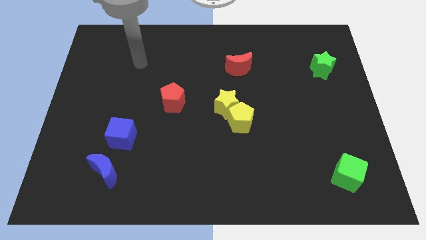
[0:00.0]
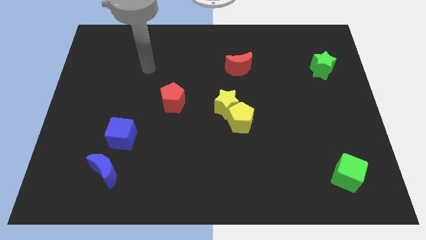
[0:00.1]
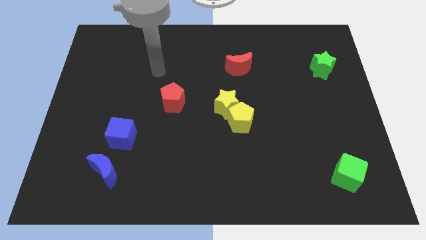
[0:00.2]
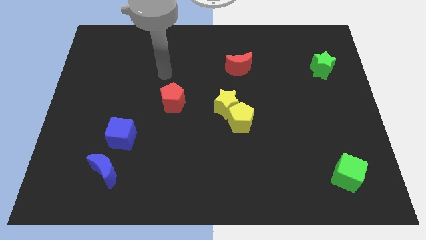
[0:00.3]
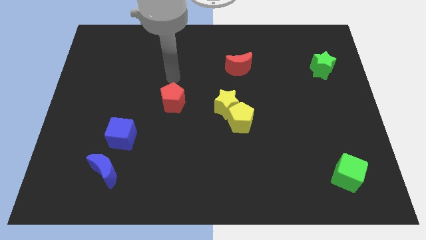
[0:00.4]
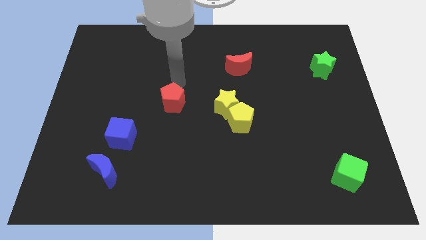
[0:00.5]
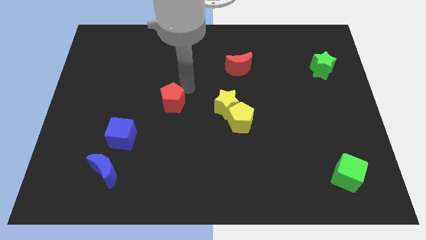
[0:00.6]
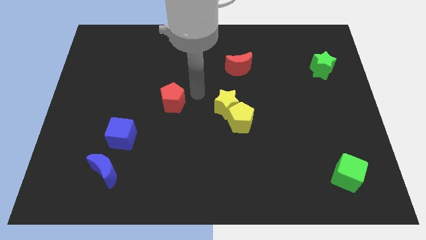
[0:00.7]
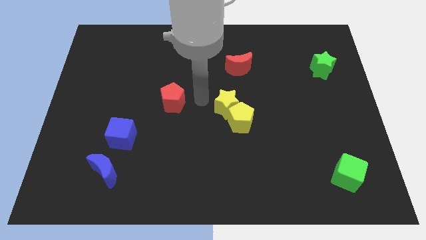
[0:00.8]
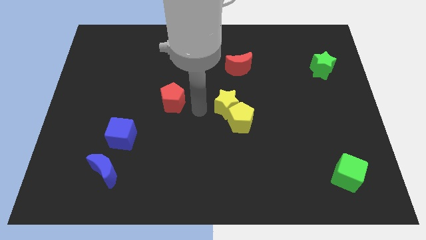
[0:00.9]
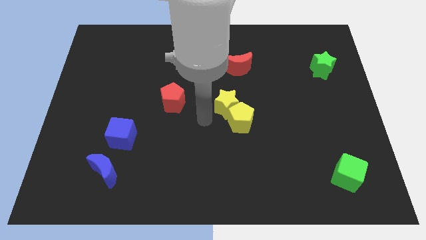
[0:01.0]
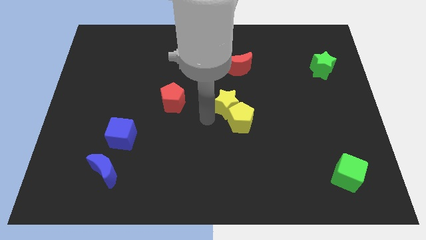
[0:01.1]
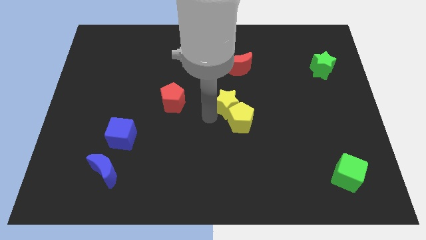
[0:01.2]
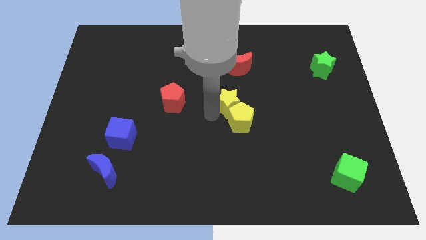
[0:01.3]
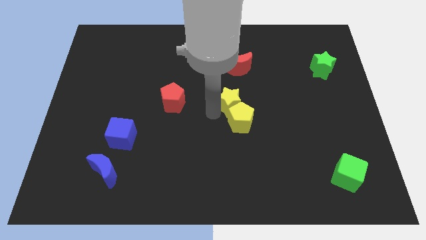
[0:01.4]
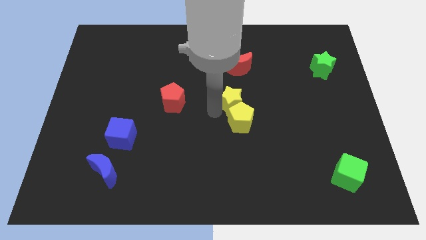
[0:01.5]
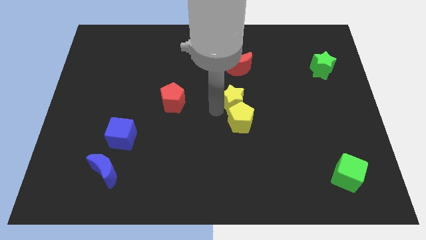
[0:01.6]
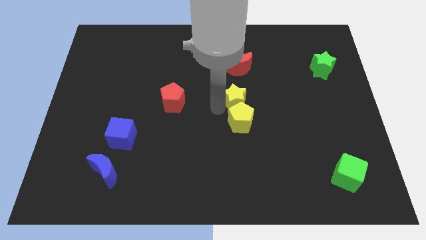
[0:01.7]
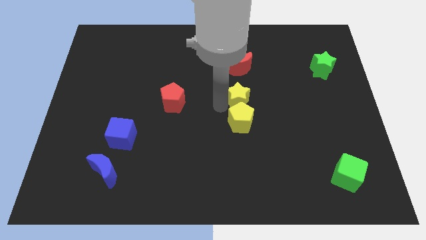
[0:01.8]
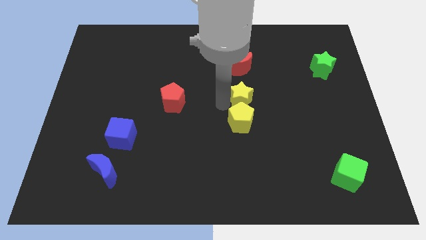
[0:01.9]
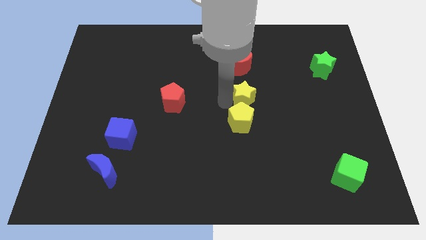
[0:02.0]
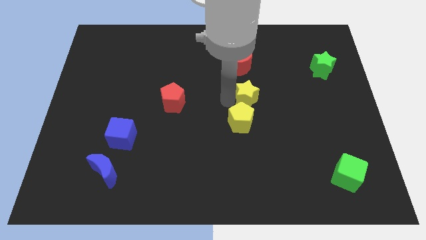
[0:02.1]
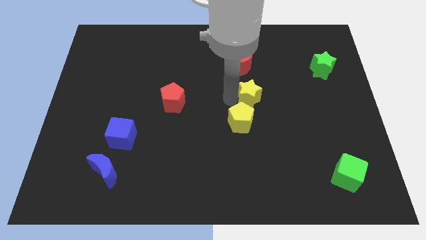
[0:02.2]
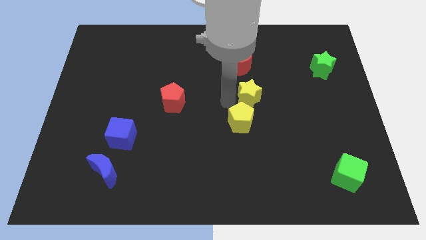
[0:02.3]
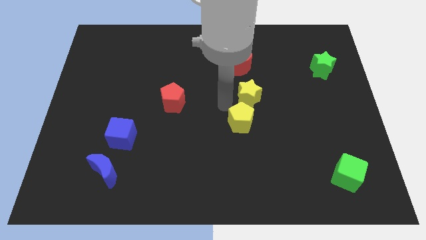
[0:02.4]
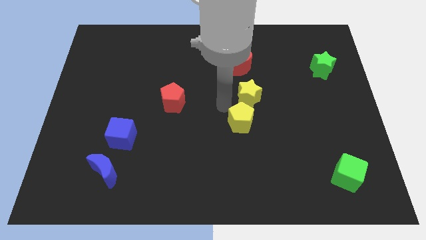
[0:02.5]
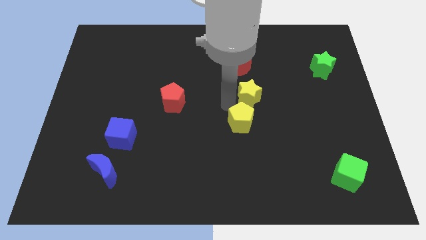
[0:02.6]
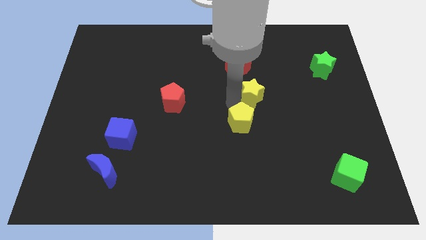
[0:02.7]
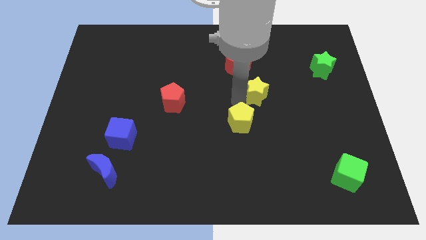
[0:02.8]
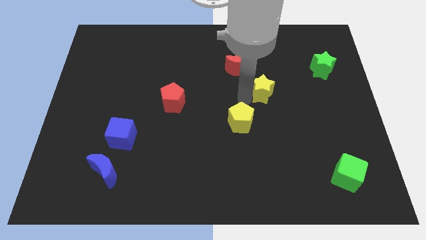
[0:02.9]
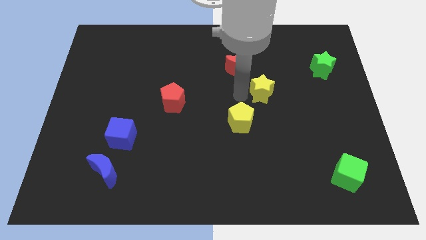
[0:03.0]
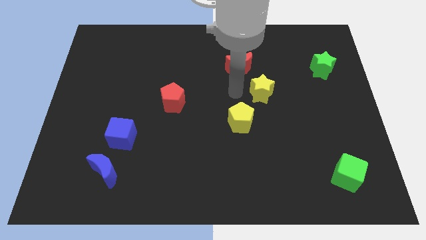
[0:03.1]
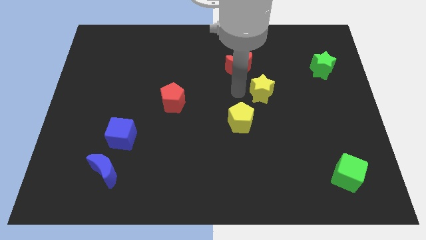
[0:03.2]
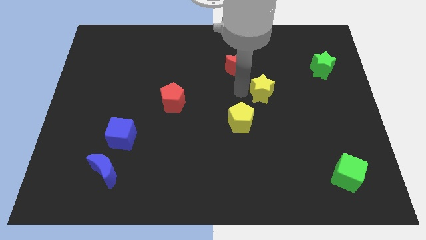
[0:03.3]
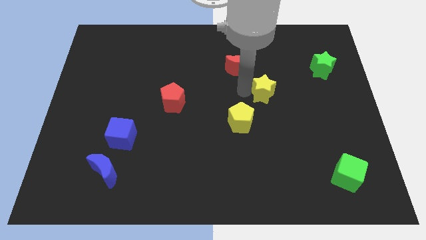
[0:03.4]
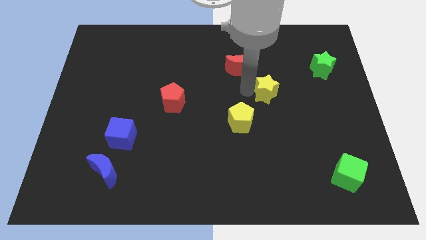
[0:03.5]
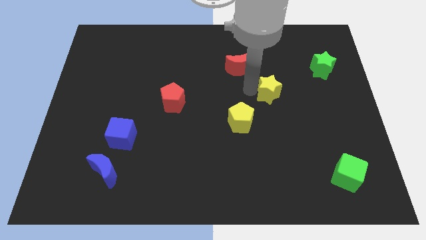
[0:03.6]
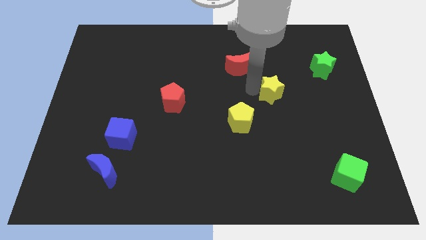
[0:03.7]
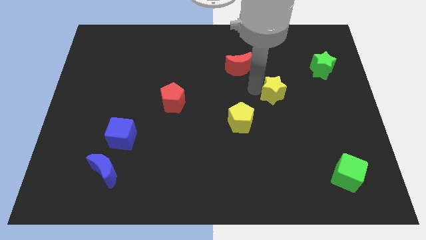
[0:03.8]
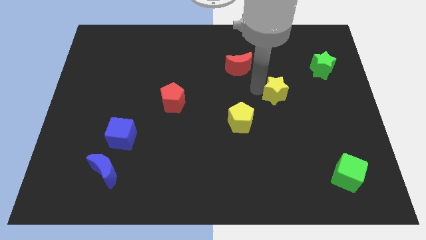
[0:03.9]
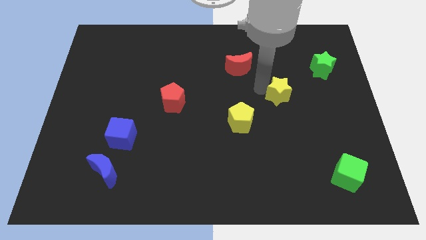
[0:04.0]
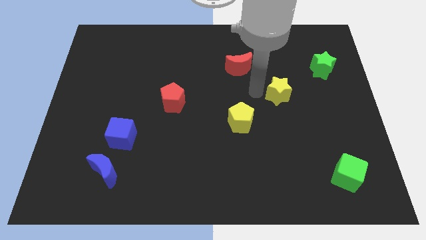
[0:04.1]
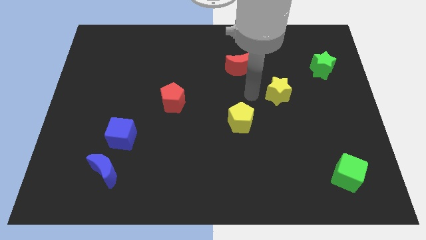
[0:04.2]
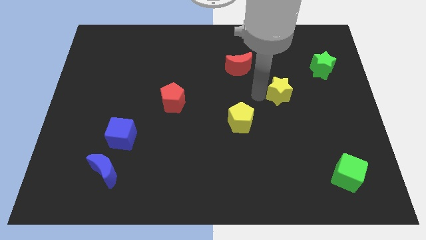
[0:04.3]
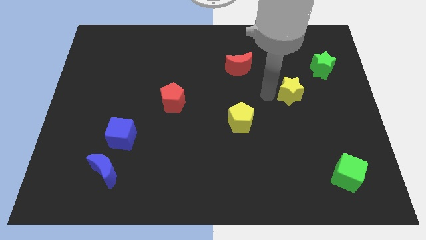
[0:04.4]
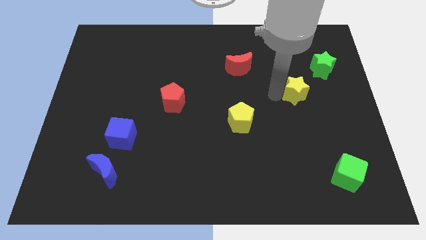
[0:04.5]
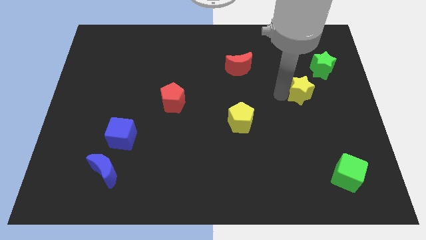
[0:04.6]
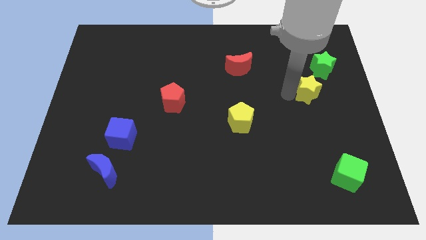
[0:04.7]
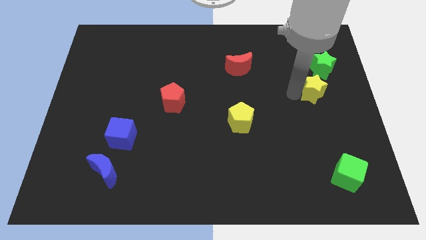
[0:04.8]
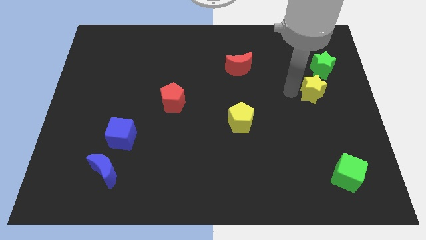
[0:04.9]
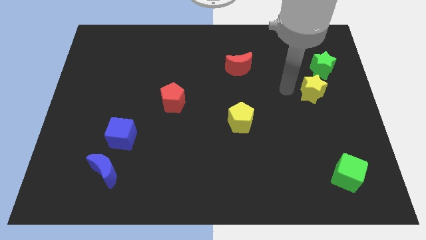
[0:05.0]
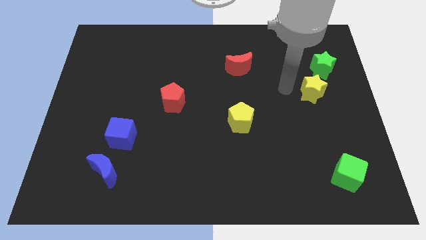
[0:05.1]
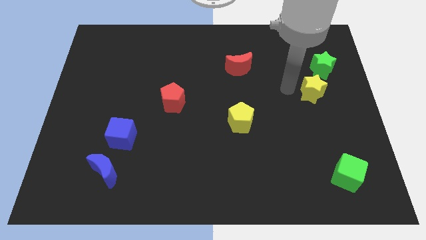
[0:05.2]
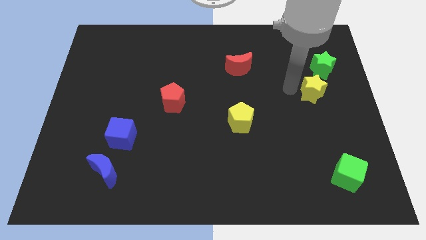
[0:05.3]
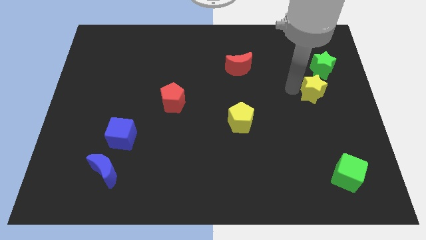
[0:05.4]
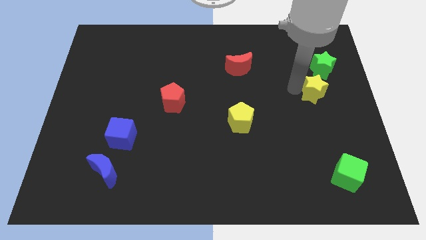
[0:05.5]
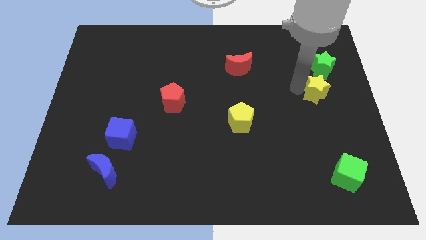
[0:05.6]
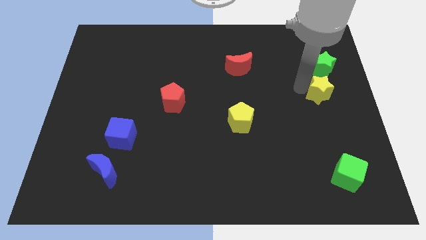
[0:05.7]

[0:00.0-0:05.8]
slide the yellow star to the center right

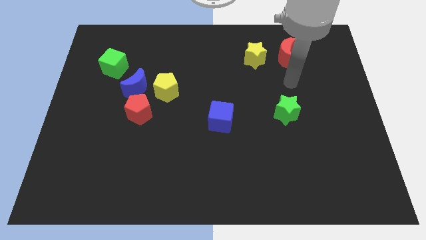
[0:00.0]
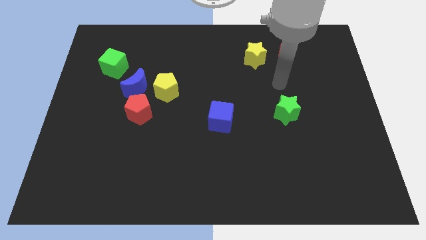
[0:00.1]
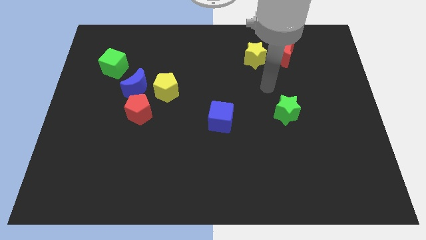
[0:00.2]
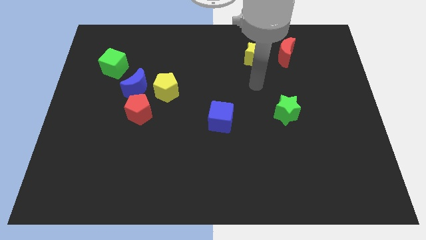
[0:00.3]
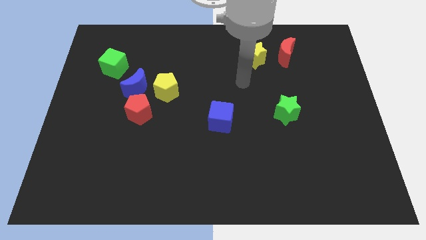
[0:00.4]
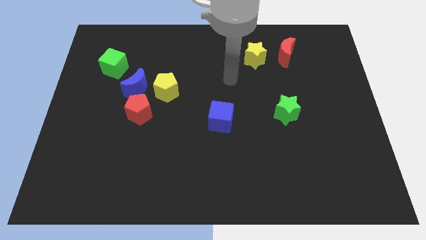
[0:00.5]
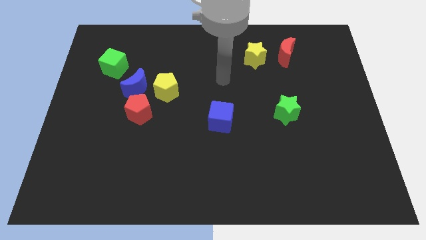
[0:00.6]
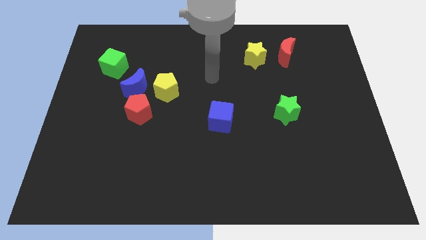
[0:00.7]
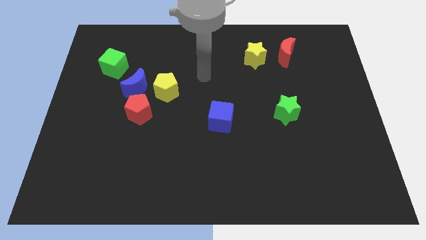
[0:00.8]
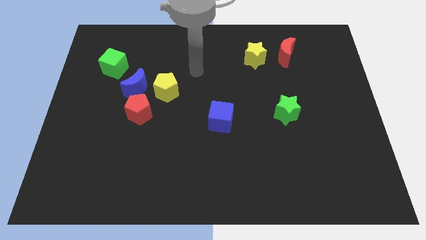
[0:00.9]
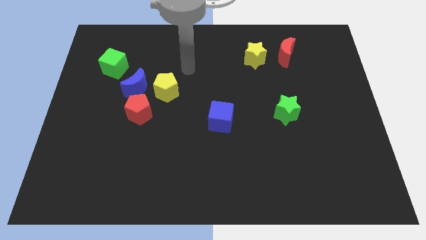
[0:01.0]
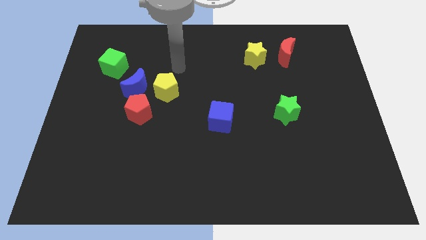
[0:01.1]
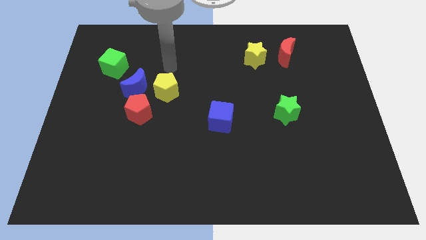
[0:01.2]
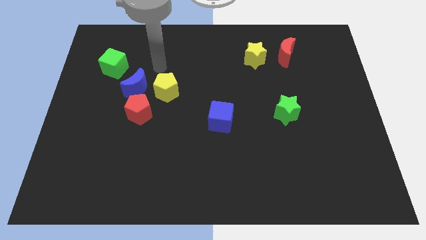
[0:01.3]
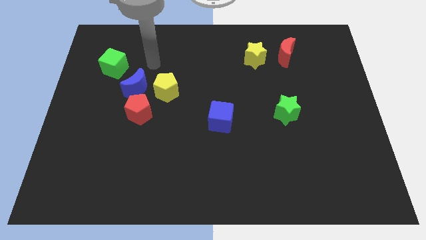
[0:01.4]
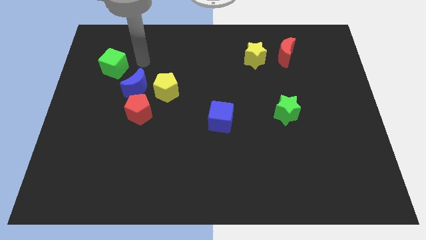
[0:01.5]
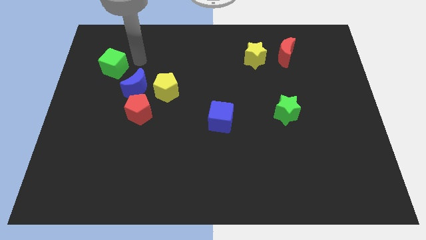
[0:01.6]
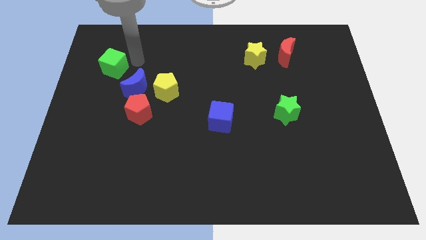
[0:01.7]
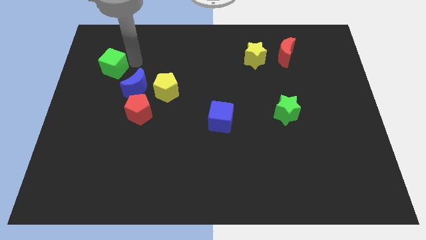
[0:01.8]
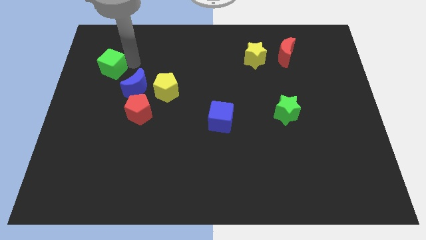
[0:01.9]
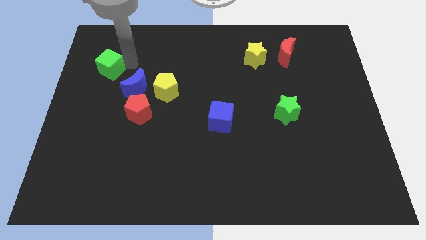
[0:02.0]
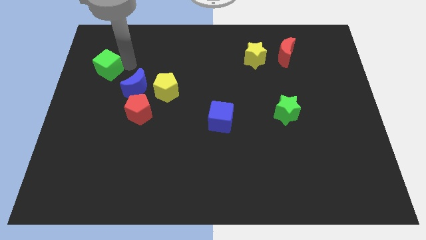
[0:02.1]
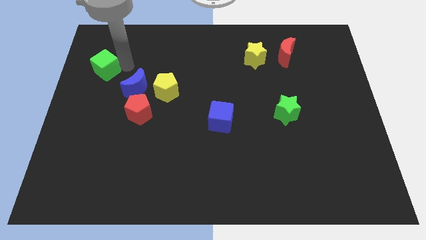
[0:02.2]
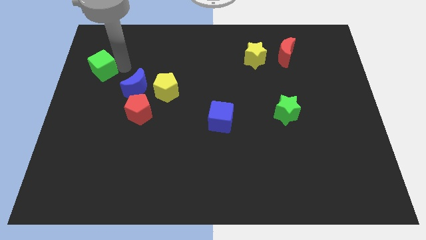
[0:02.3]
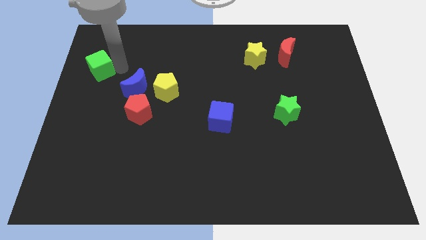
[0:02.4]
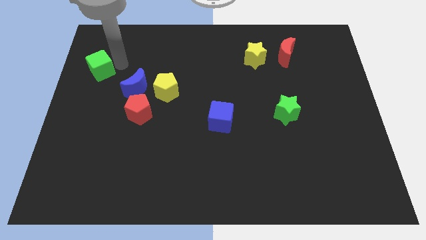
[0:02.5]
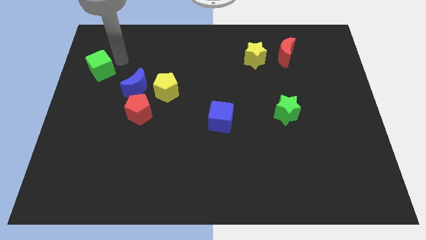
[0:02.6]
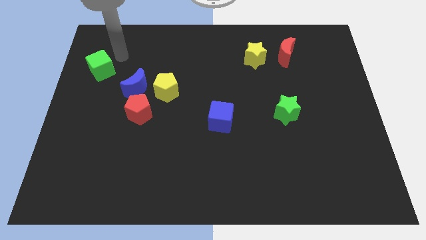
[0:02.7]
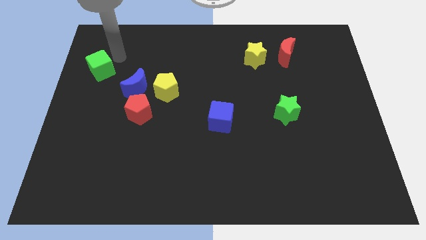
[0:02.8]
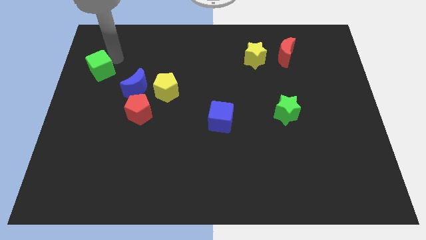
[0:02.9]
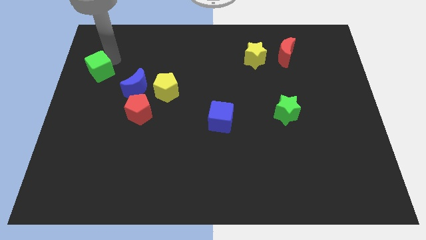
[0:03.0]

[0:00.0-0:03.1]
put the green cube to the center left
